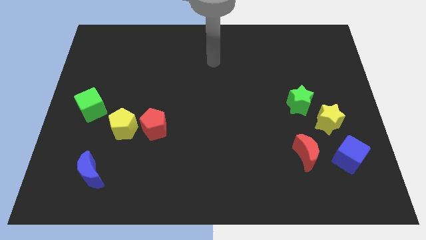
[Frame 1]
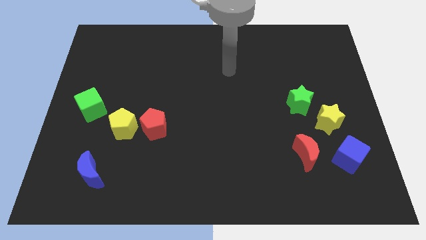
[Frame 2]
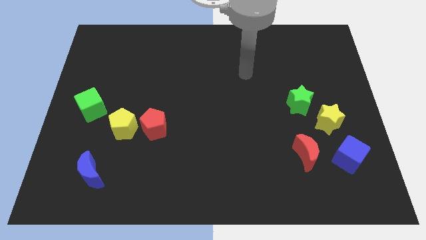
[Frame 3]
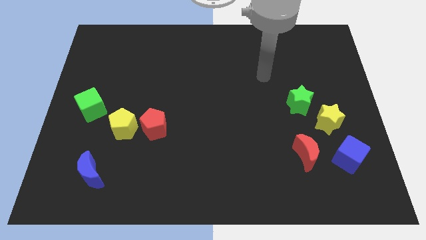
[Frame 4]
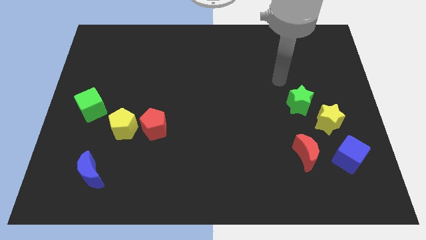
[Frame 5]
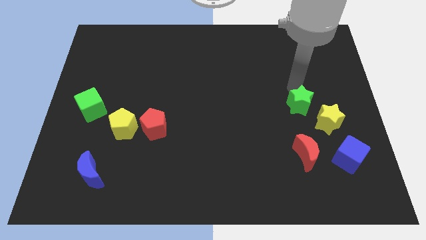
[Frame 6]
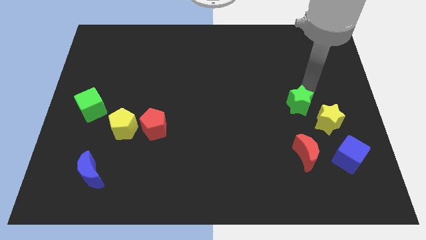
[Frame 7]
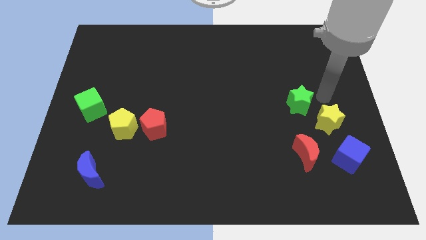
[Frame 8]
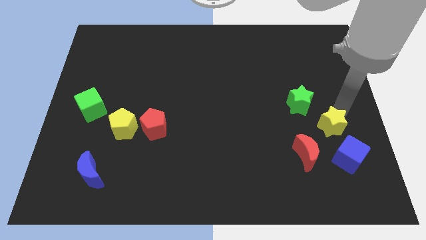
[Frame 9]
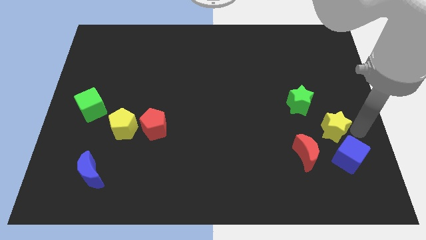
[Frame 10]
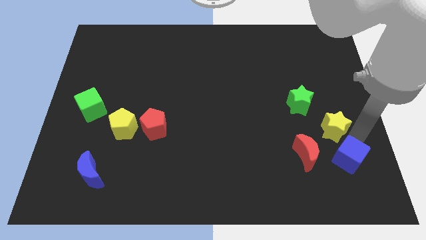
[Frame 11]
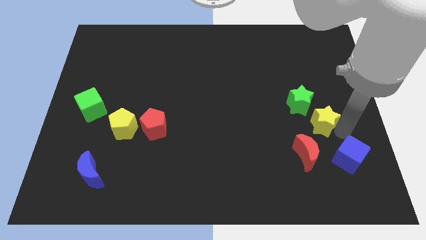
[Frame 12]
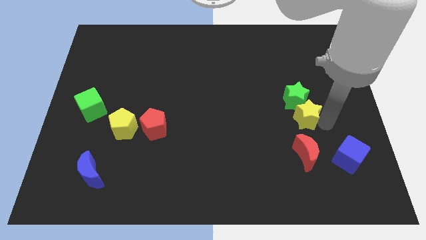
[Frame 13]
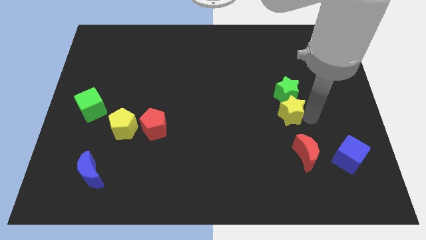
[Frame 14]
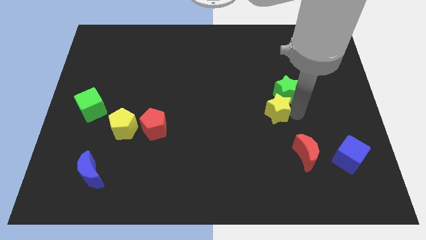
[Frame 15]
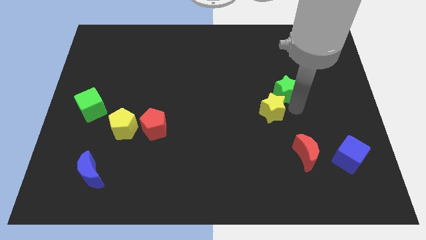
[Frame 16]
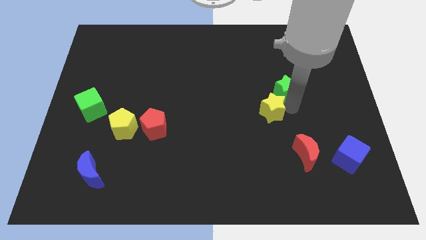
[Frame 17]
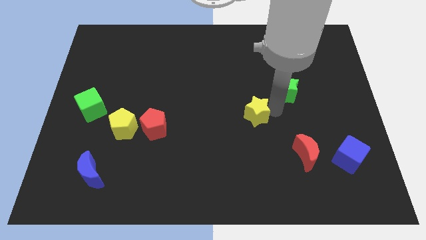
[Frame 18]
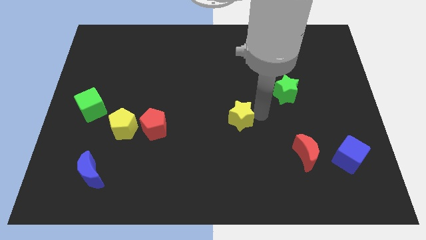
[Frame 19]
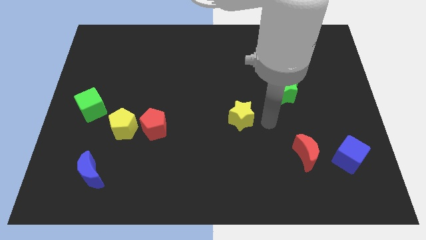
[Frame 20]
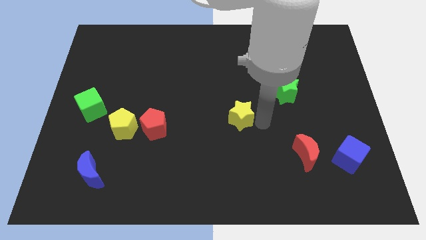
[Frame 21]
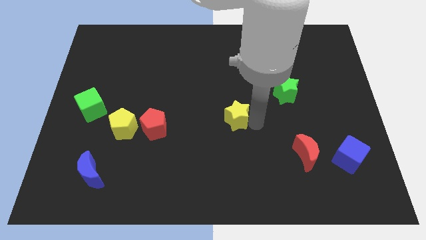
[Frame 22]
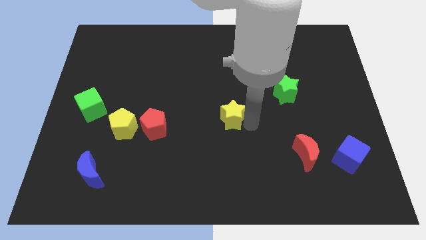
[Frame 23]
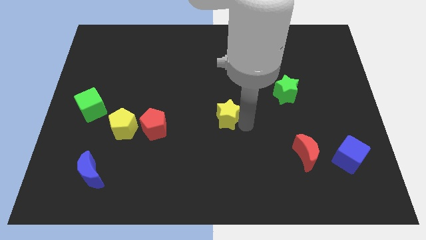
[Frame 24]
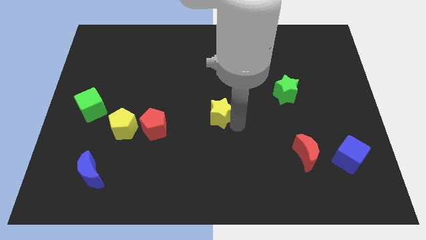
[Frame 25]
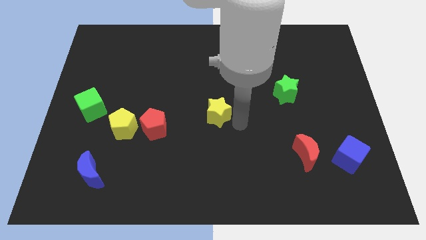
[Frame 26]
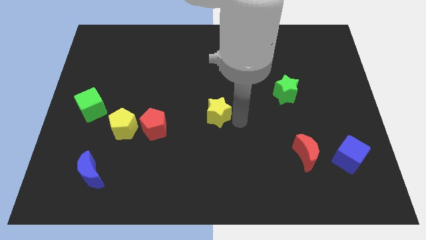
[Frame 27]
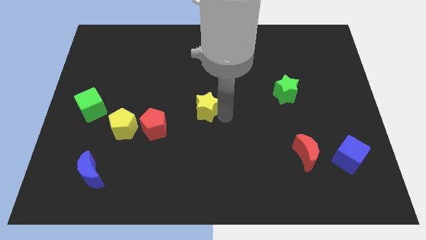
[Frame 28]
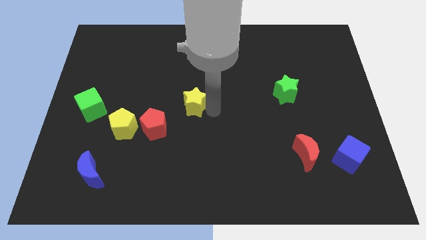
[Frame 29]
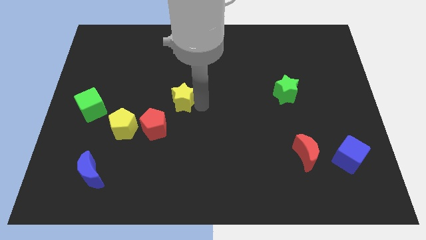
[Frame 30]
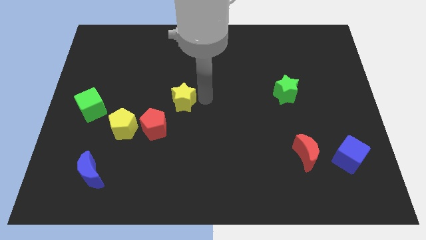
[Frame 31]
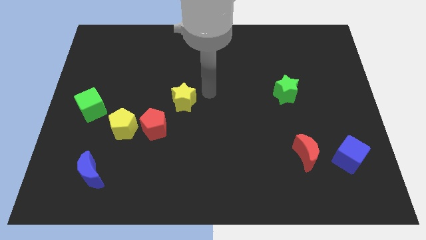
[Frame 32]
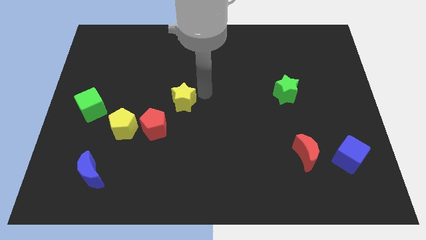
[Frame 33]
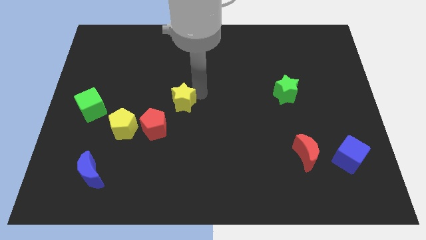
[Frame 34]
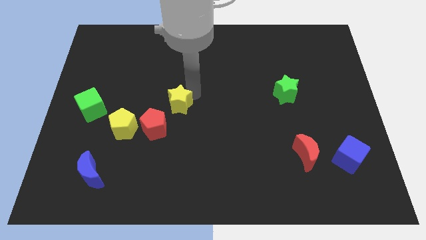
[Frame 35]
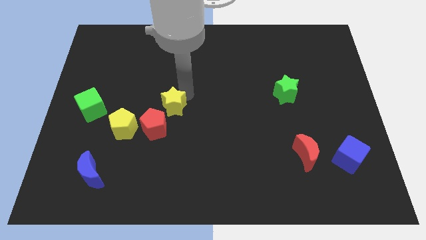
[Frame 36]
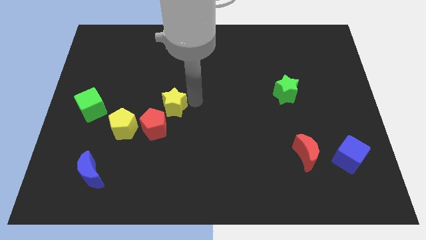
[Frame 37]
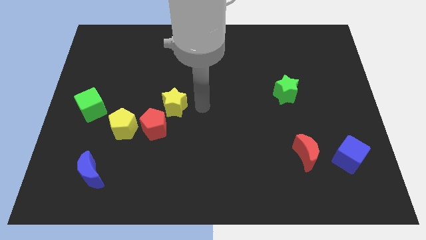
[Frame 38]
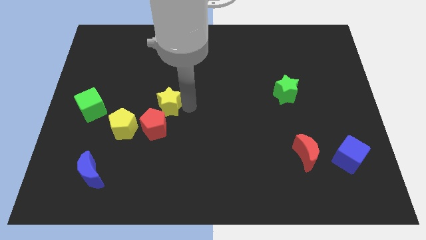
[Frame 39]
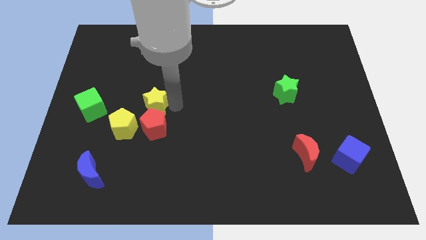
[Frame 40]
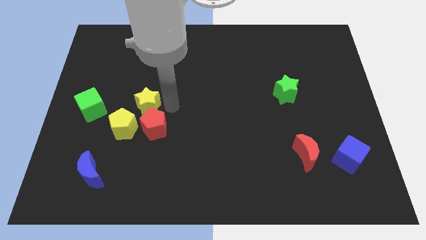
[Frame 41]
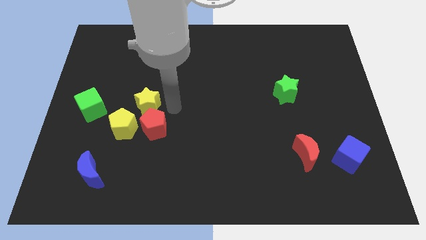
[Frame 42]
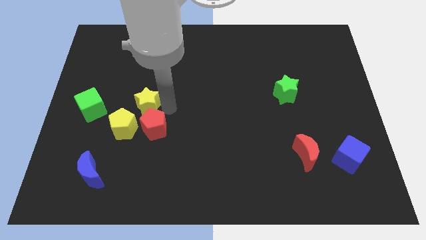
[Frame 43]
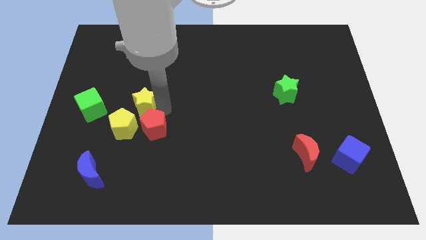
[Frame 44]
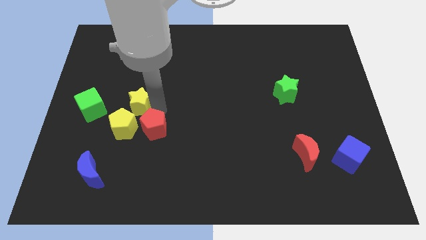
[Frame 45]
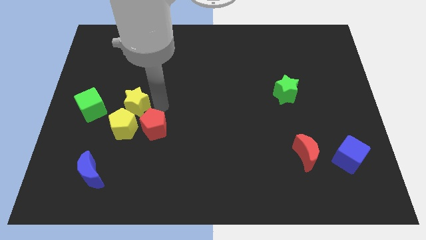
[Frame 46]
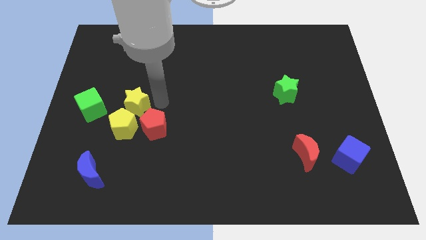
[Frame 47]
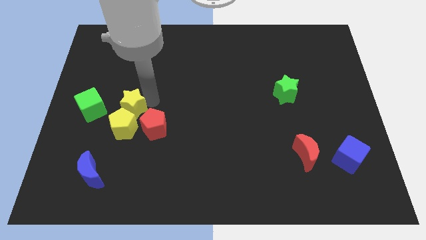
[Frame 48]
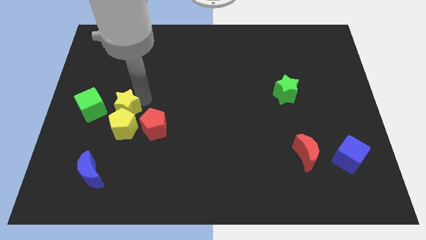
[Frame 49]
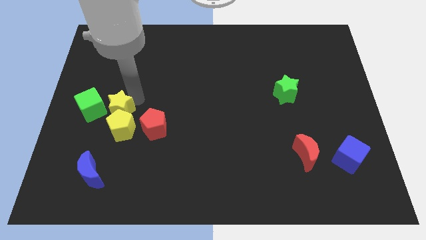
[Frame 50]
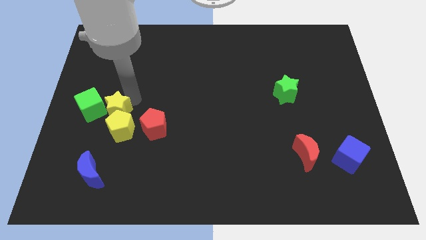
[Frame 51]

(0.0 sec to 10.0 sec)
push the yellow star close to the green cube

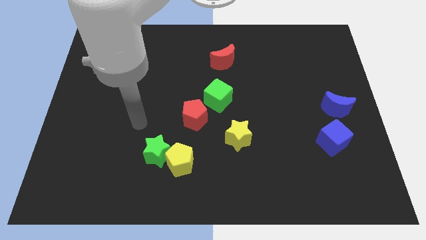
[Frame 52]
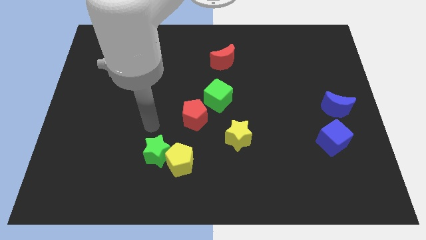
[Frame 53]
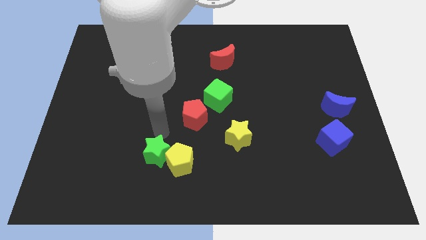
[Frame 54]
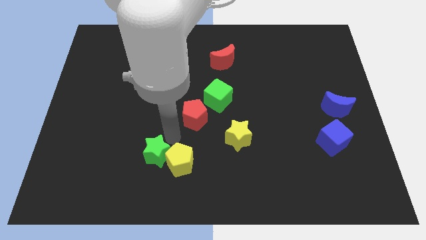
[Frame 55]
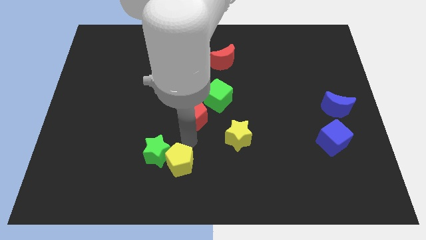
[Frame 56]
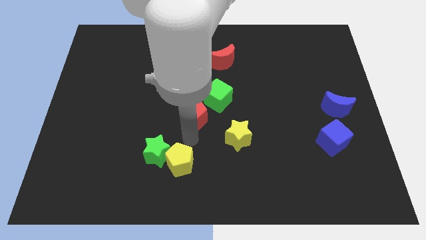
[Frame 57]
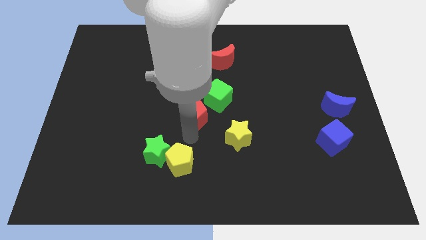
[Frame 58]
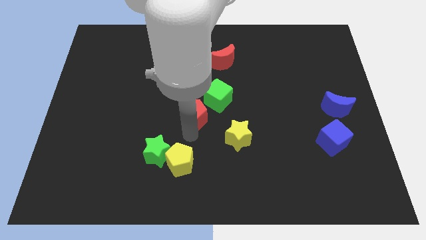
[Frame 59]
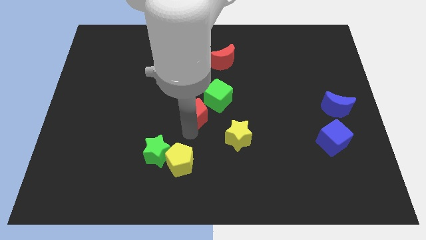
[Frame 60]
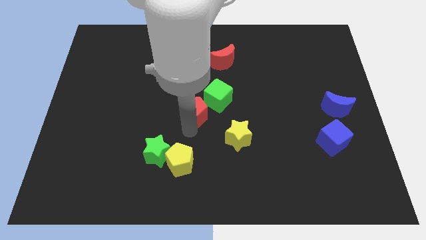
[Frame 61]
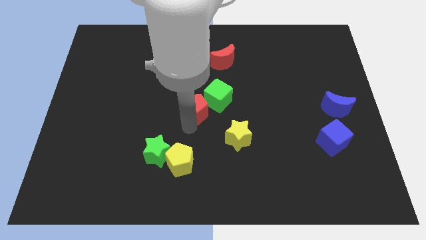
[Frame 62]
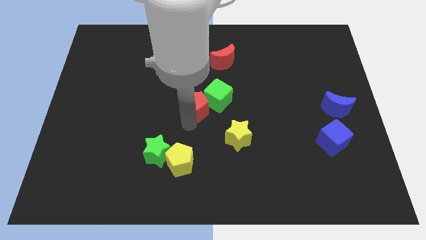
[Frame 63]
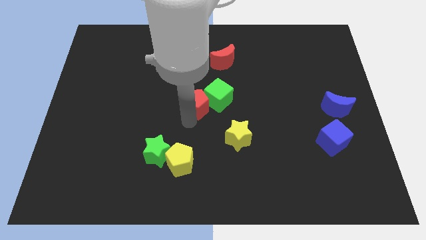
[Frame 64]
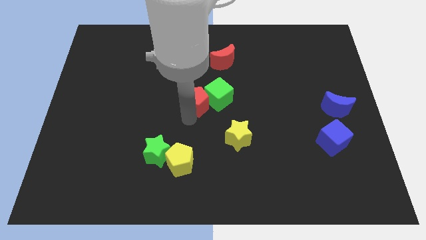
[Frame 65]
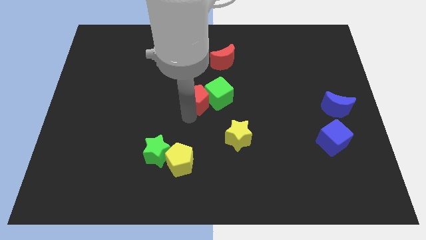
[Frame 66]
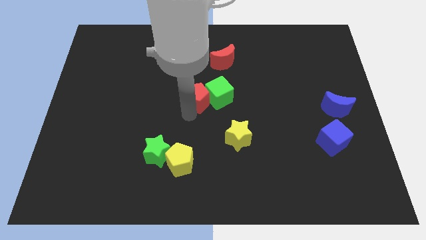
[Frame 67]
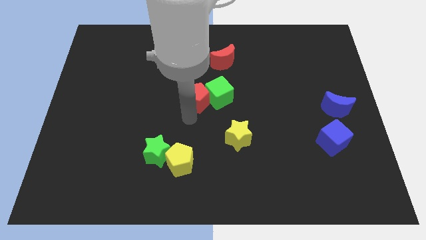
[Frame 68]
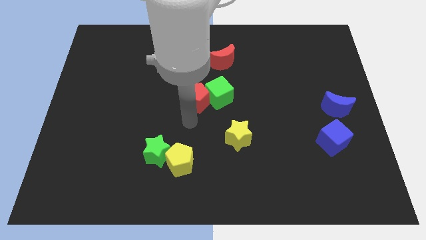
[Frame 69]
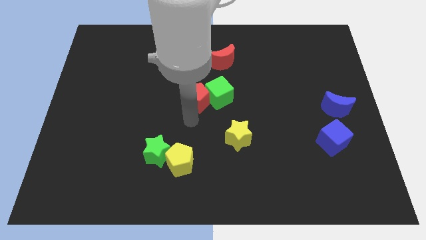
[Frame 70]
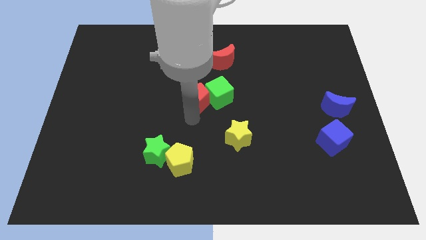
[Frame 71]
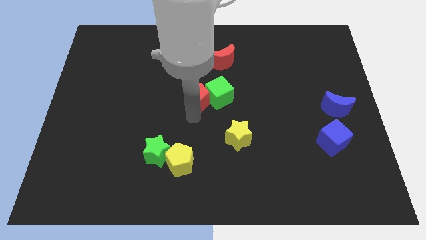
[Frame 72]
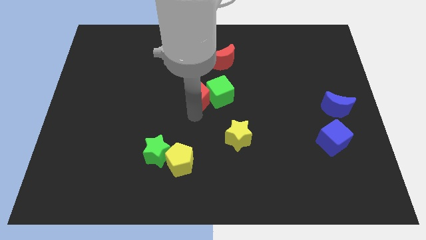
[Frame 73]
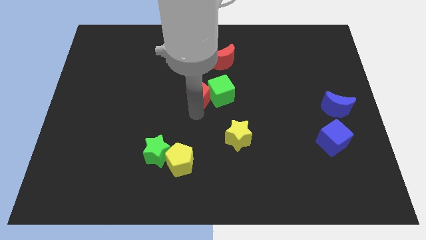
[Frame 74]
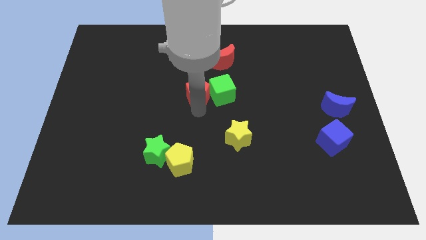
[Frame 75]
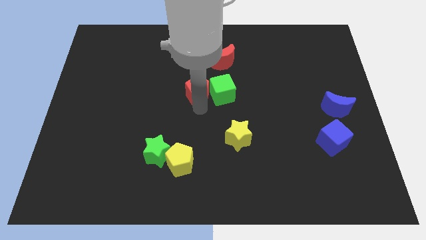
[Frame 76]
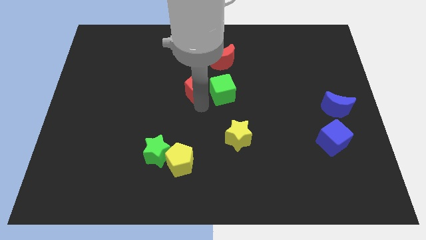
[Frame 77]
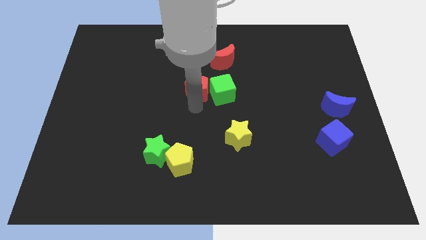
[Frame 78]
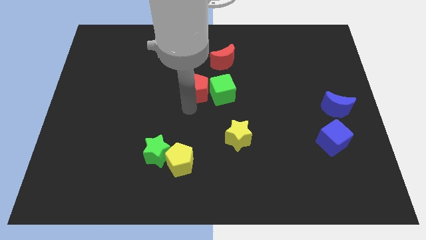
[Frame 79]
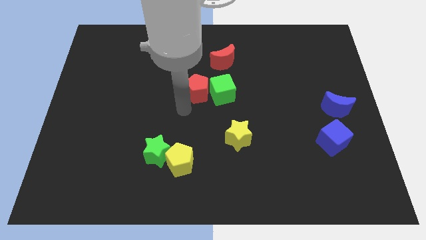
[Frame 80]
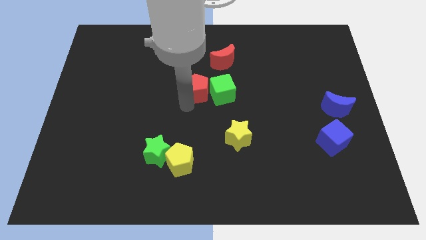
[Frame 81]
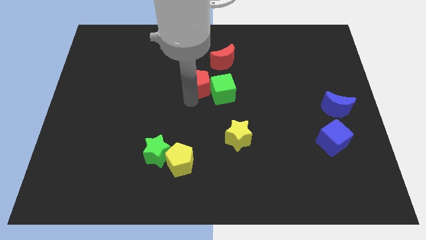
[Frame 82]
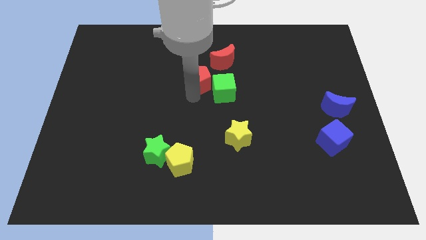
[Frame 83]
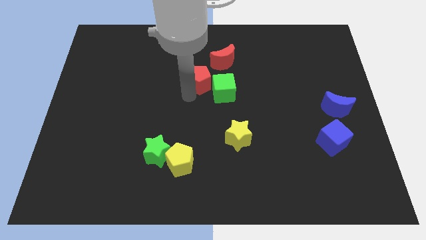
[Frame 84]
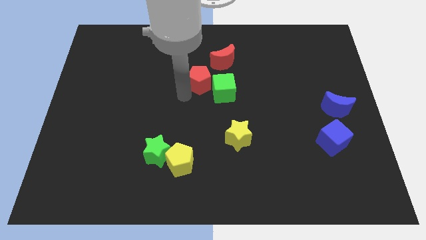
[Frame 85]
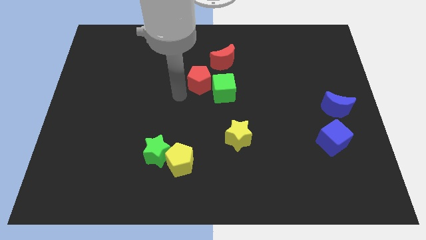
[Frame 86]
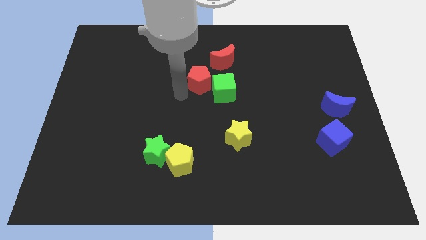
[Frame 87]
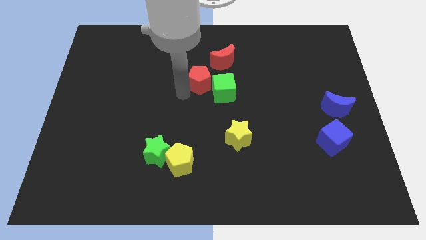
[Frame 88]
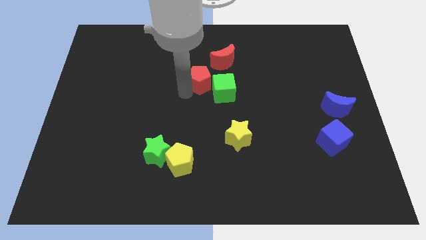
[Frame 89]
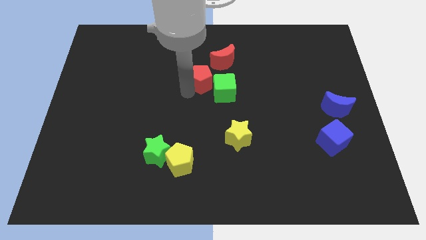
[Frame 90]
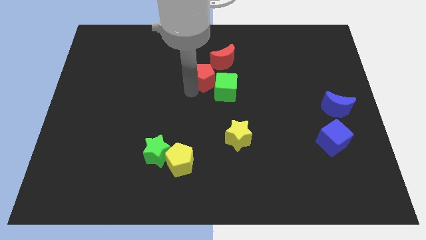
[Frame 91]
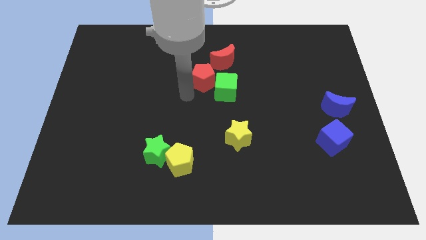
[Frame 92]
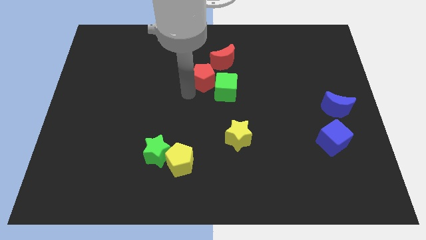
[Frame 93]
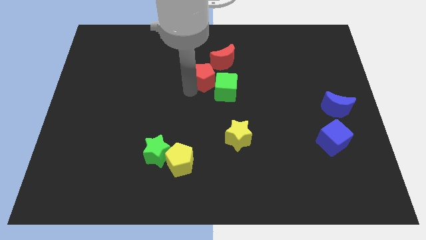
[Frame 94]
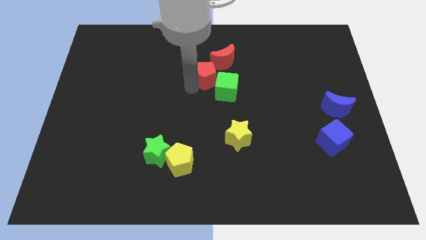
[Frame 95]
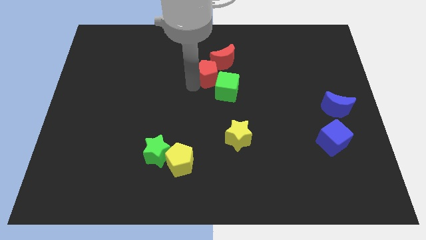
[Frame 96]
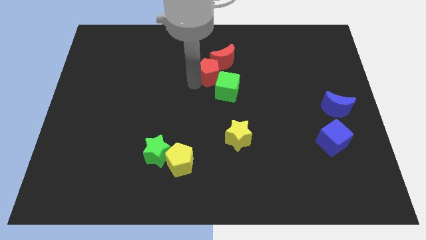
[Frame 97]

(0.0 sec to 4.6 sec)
put the red pentagon close to the red moon
